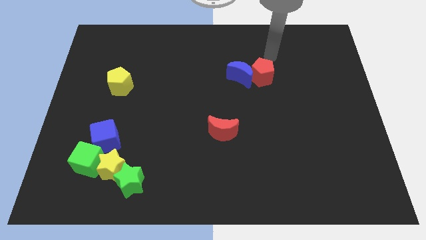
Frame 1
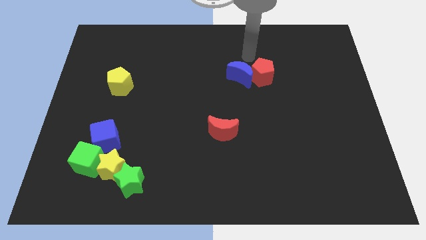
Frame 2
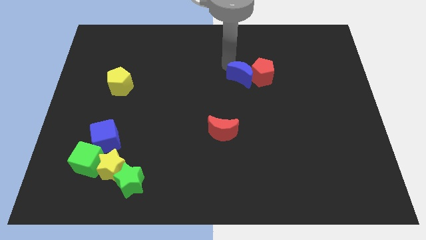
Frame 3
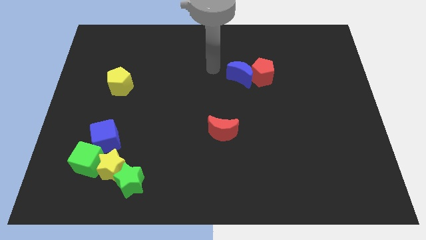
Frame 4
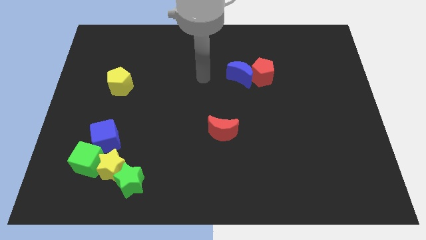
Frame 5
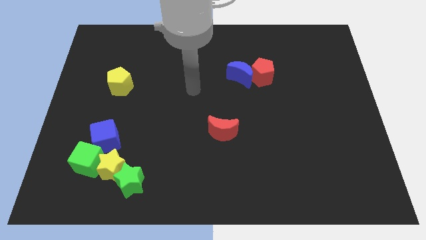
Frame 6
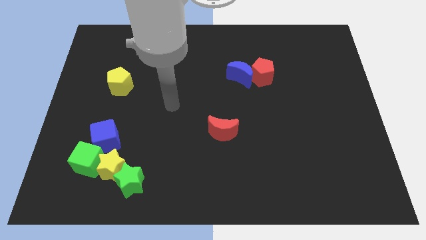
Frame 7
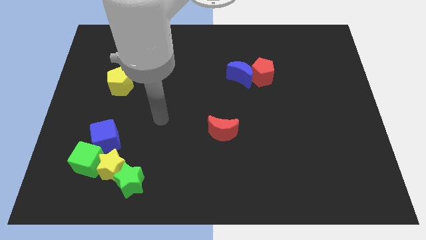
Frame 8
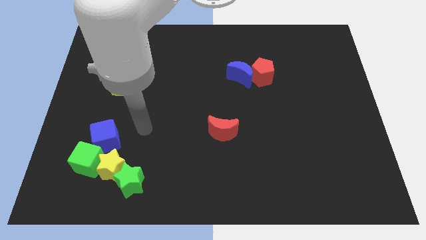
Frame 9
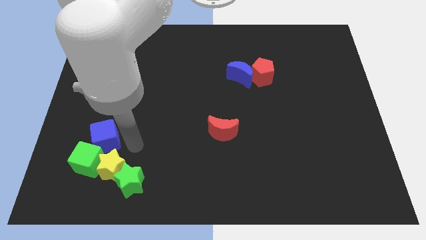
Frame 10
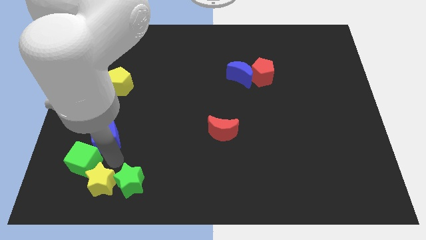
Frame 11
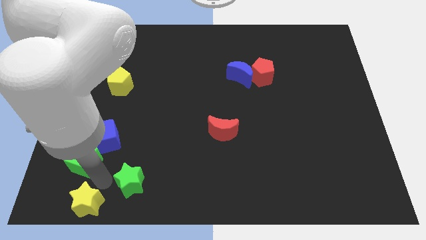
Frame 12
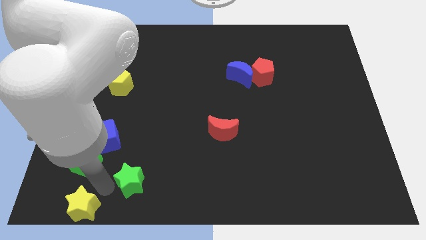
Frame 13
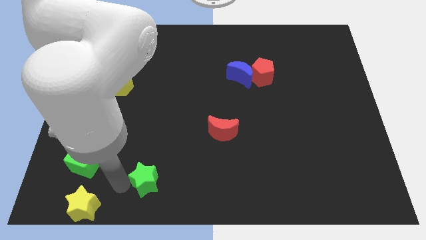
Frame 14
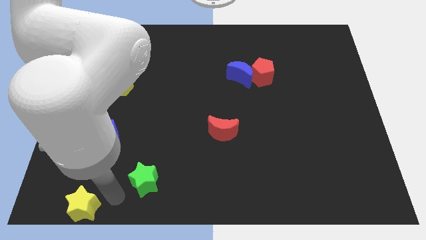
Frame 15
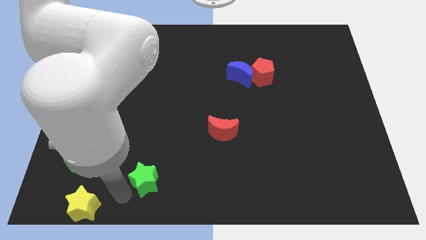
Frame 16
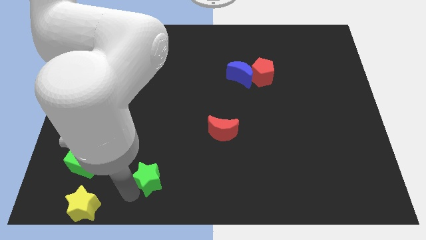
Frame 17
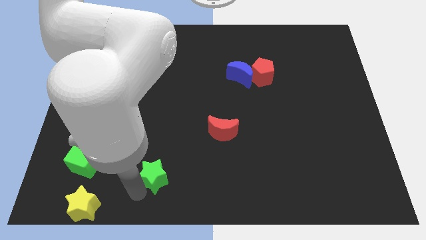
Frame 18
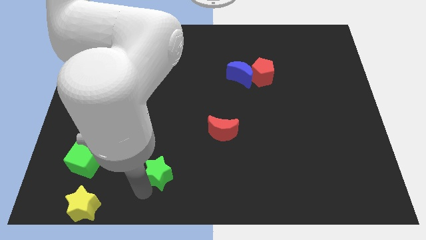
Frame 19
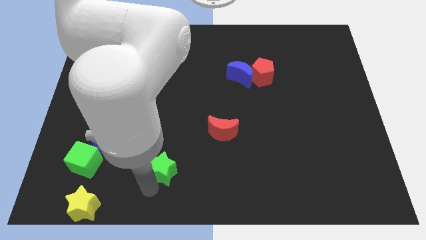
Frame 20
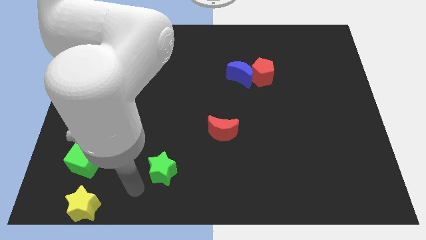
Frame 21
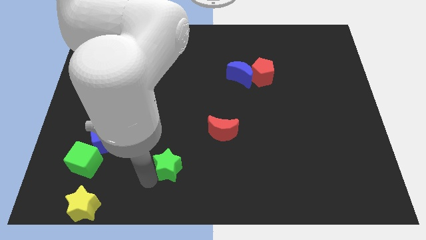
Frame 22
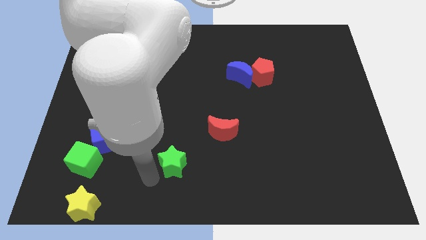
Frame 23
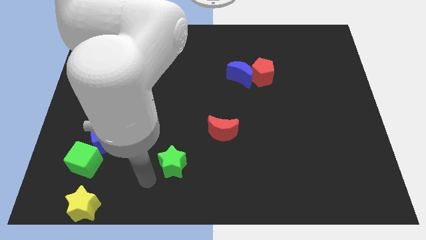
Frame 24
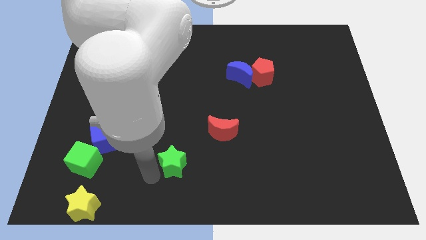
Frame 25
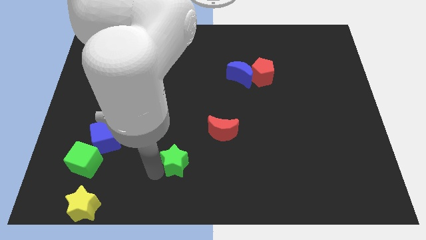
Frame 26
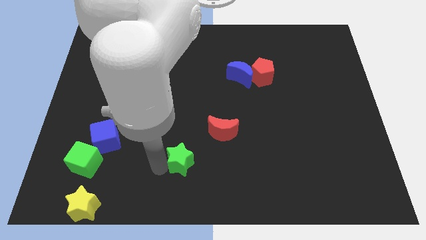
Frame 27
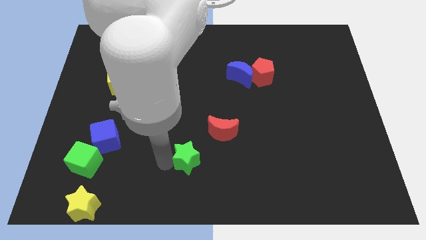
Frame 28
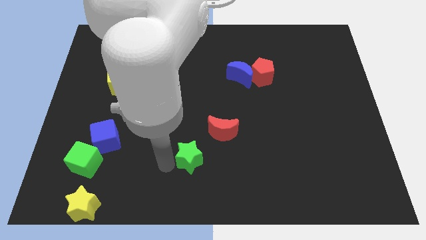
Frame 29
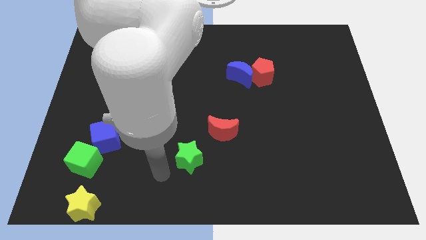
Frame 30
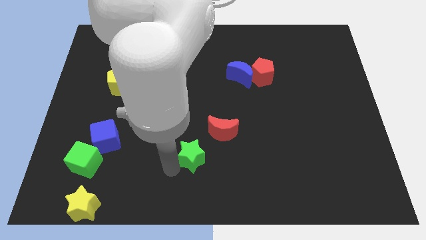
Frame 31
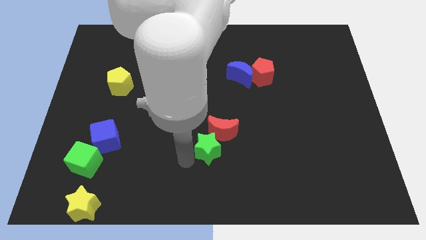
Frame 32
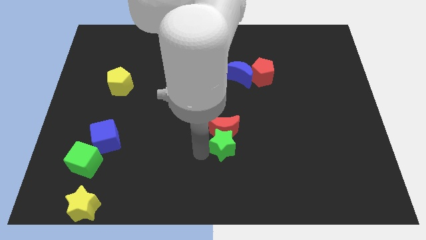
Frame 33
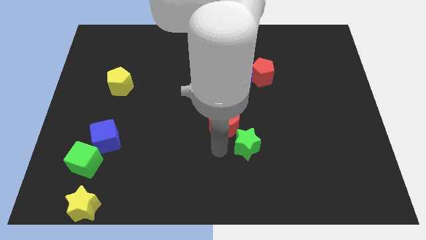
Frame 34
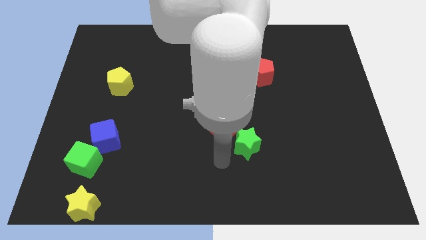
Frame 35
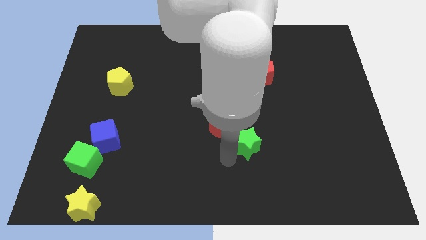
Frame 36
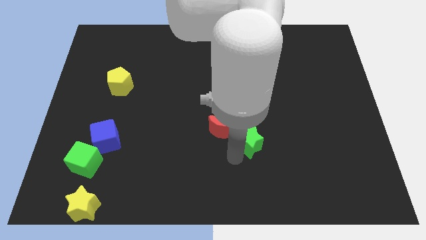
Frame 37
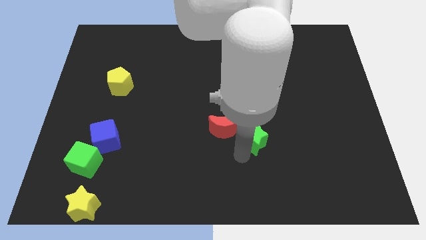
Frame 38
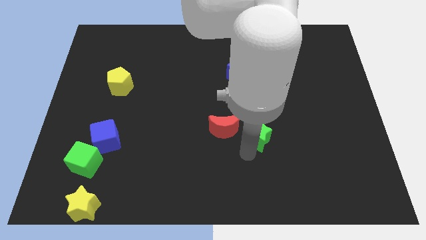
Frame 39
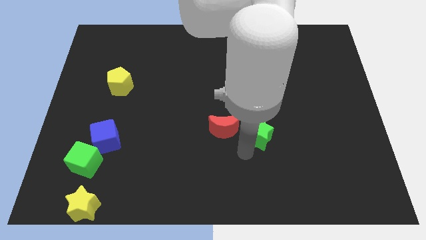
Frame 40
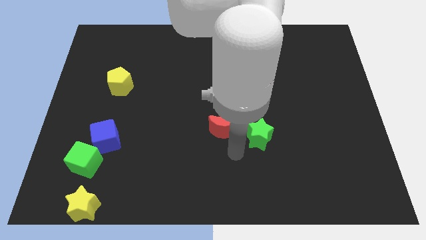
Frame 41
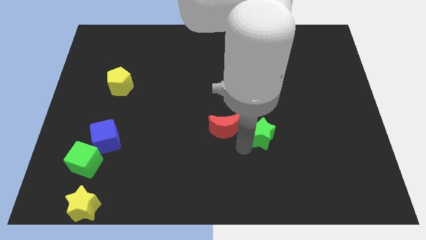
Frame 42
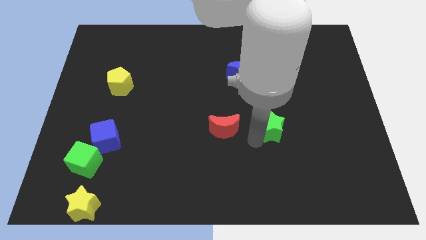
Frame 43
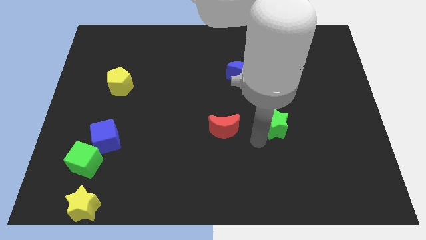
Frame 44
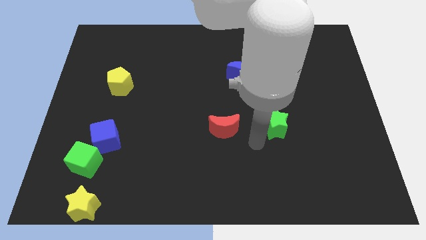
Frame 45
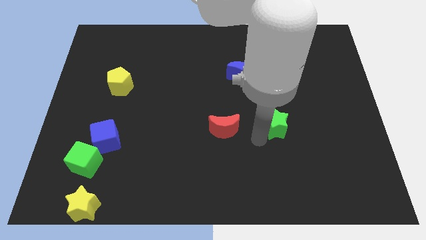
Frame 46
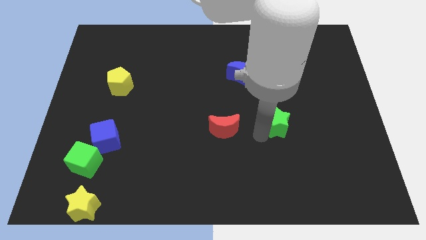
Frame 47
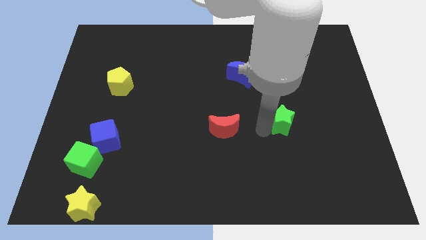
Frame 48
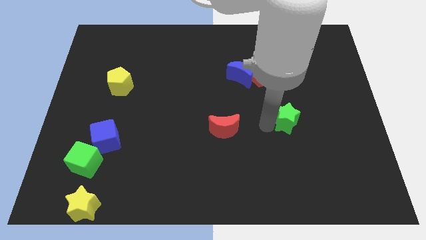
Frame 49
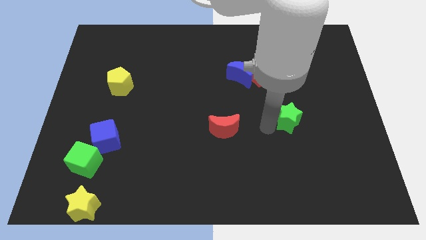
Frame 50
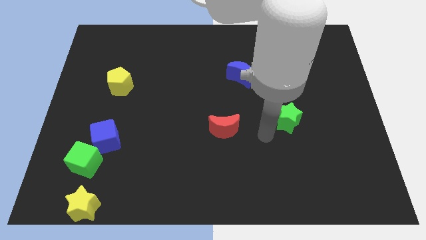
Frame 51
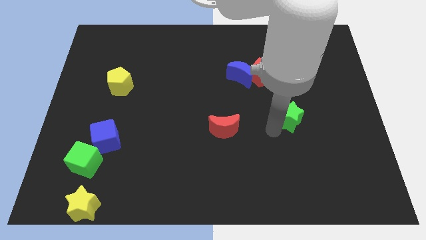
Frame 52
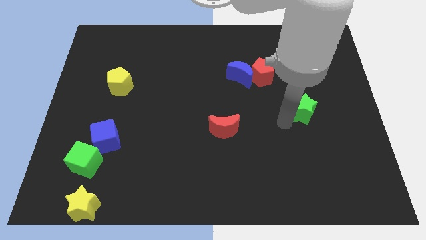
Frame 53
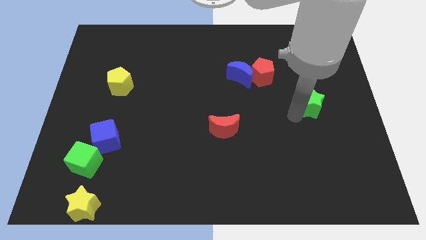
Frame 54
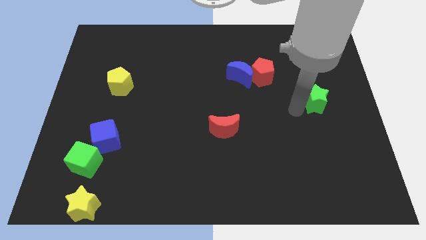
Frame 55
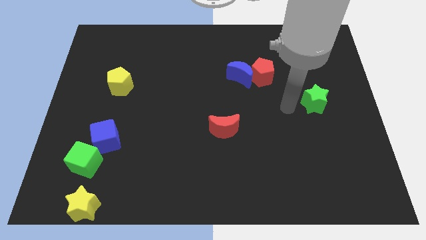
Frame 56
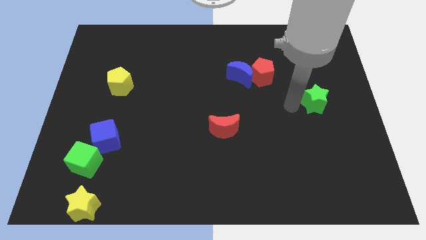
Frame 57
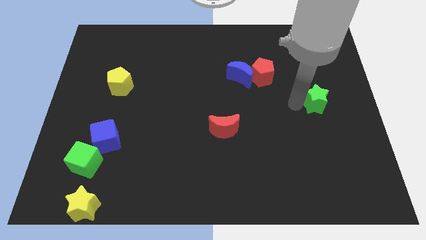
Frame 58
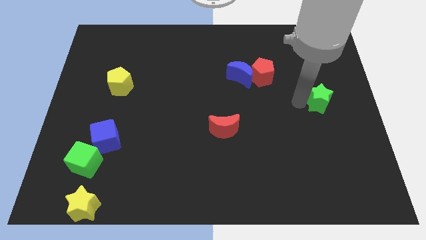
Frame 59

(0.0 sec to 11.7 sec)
move the green star to the center right

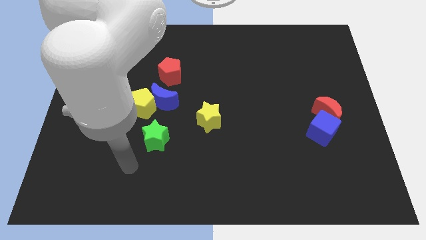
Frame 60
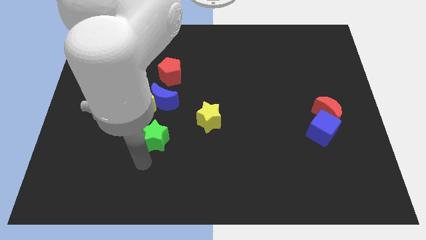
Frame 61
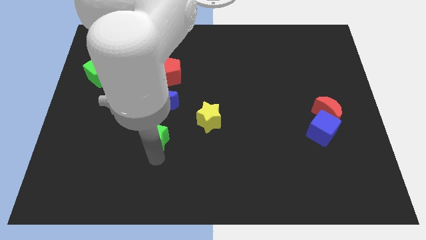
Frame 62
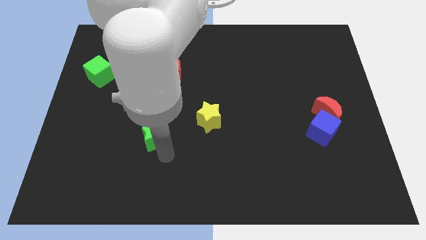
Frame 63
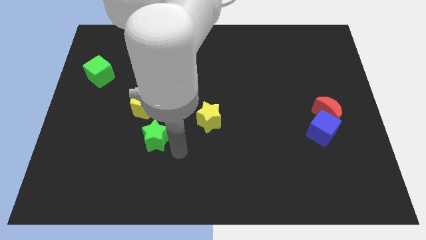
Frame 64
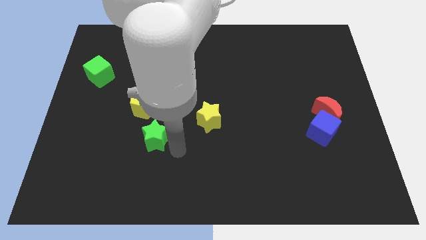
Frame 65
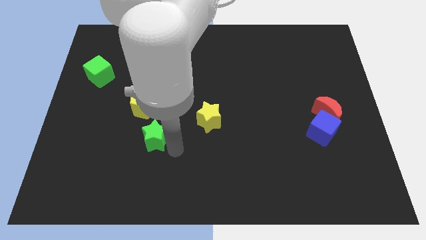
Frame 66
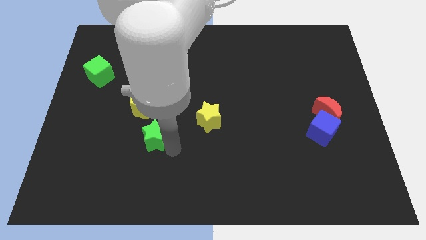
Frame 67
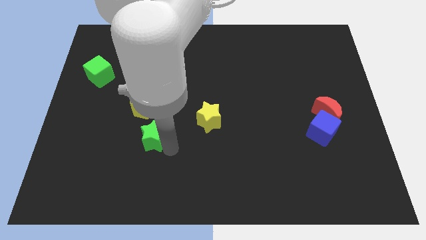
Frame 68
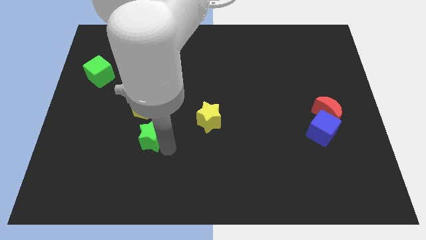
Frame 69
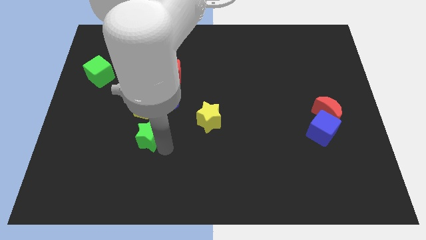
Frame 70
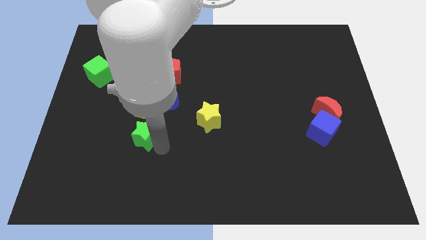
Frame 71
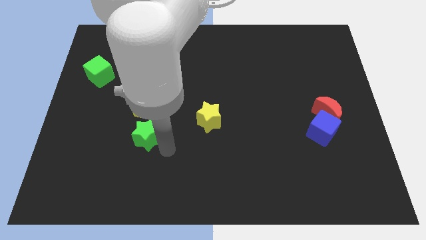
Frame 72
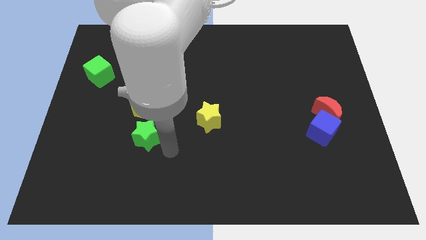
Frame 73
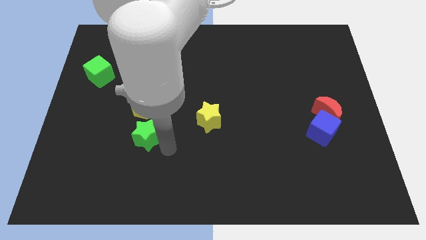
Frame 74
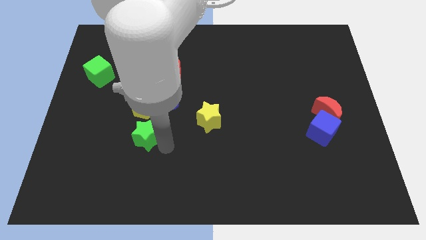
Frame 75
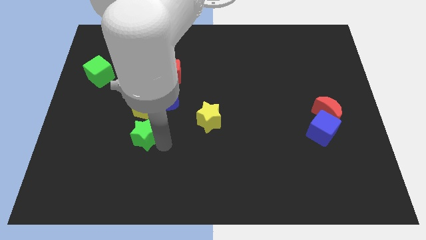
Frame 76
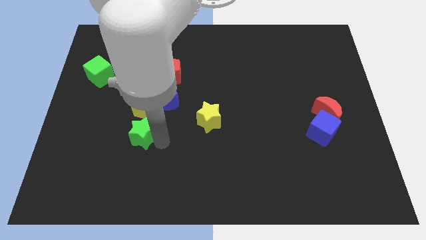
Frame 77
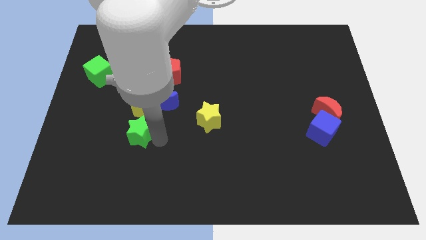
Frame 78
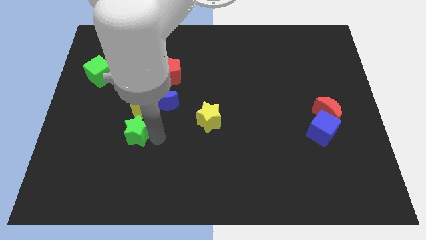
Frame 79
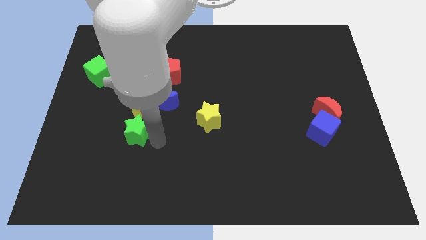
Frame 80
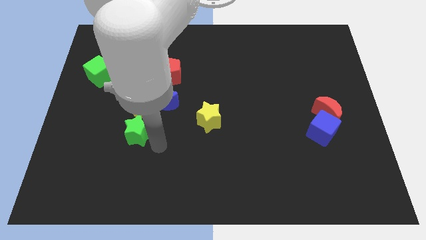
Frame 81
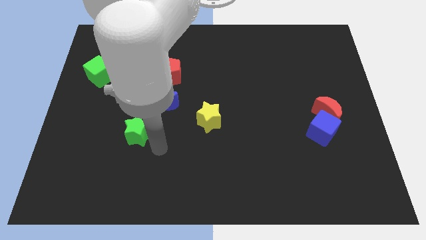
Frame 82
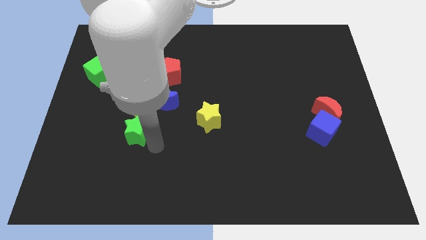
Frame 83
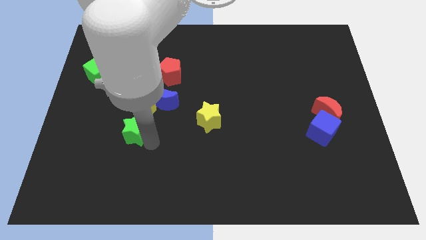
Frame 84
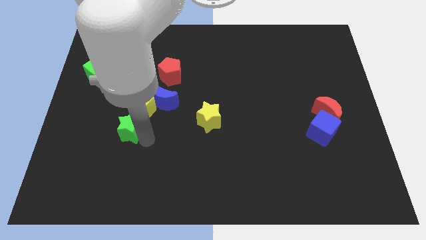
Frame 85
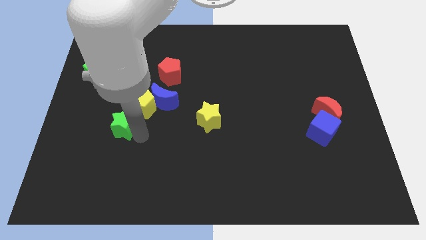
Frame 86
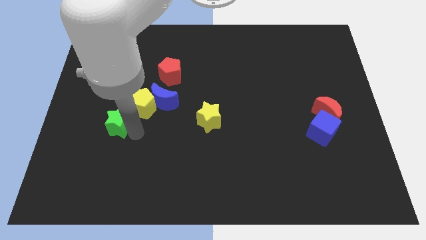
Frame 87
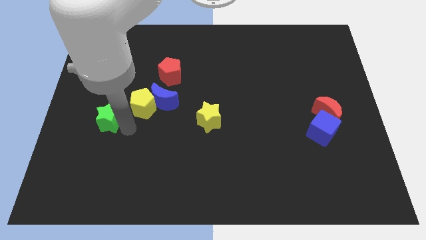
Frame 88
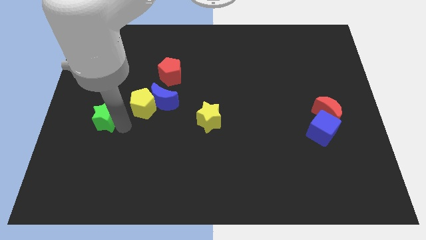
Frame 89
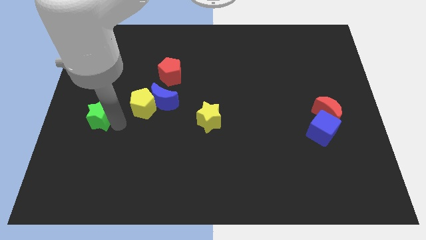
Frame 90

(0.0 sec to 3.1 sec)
slide the green star to the center left
